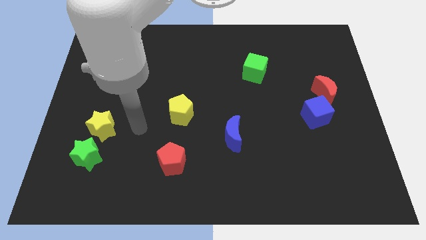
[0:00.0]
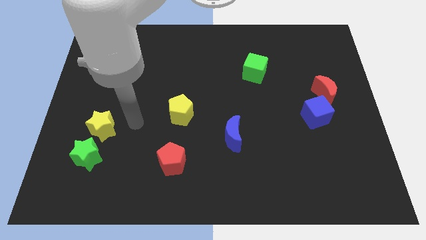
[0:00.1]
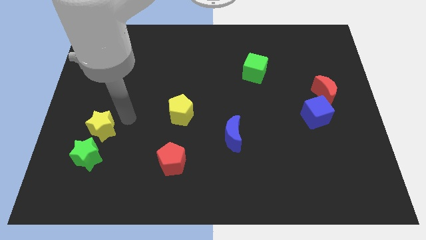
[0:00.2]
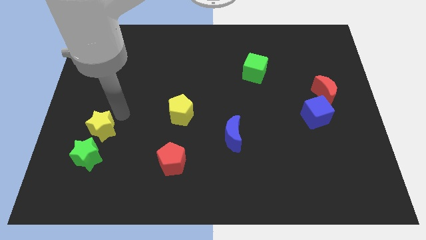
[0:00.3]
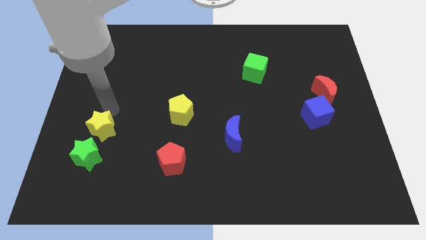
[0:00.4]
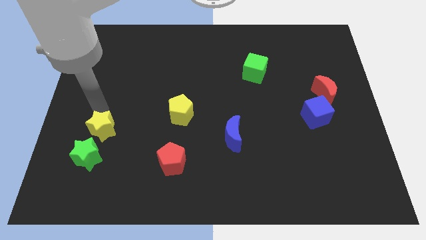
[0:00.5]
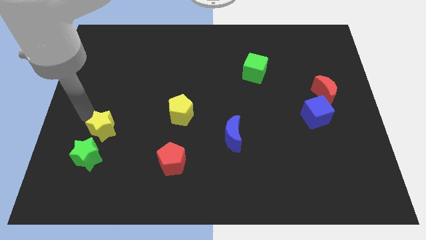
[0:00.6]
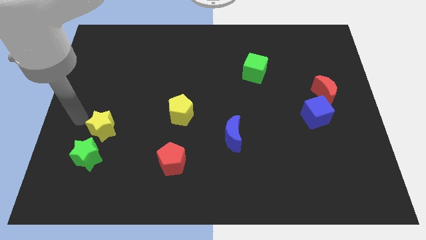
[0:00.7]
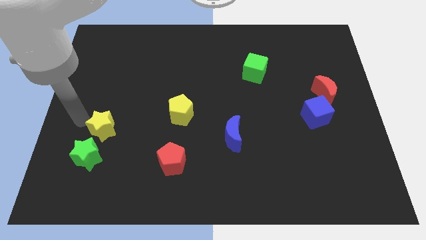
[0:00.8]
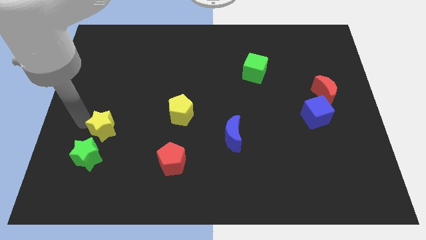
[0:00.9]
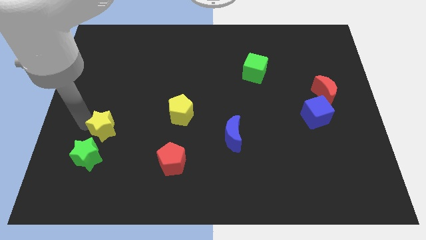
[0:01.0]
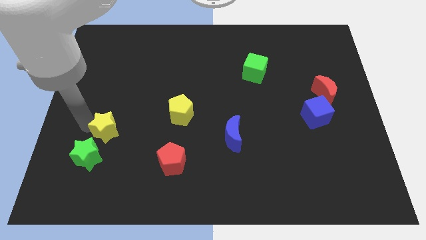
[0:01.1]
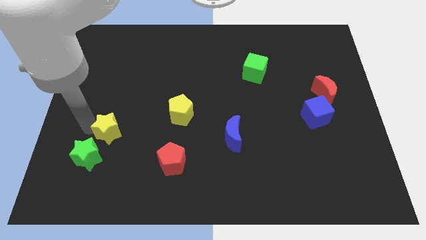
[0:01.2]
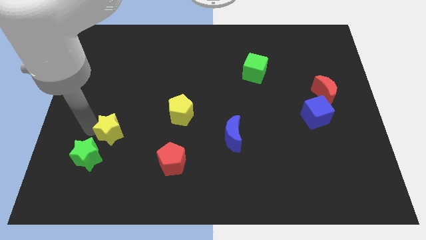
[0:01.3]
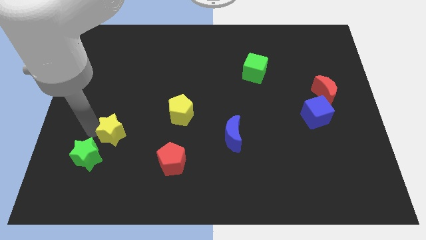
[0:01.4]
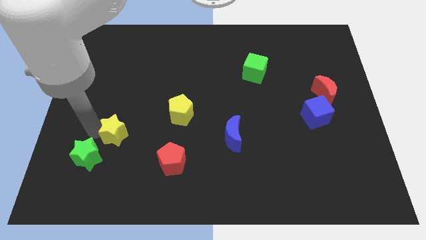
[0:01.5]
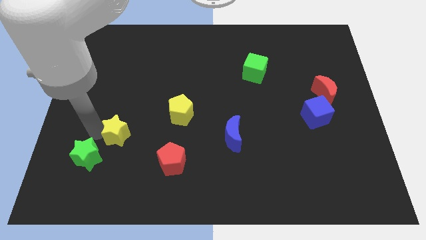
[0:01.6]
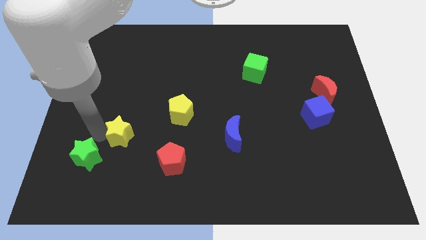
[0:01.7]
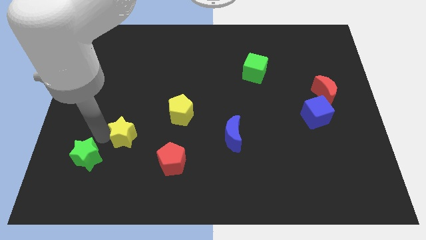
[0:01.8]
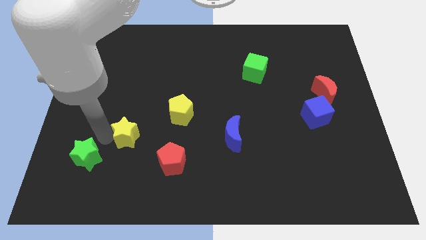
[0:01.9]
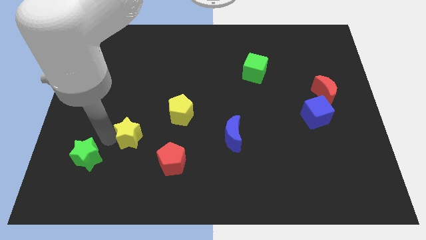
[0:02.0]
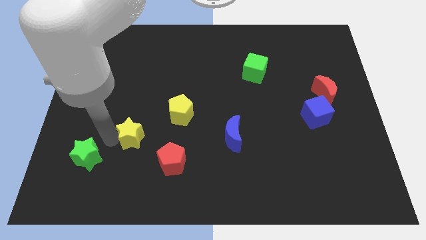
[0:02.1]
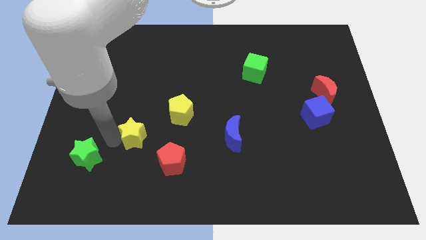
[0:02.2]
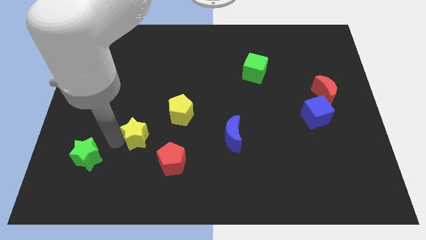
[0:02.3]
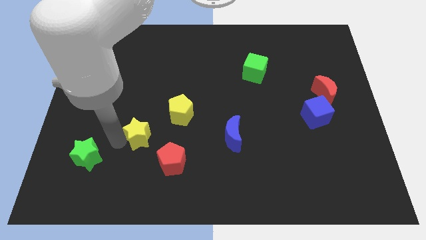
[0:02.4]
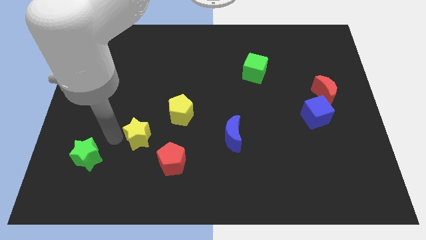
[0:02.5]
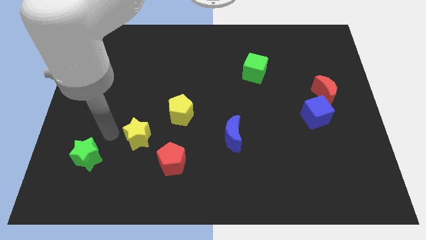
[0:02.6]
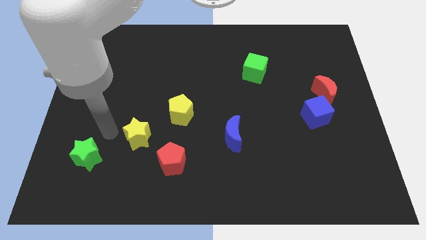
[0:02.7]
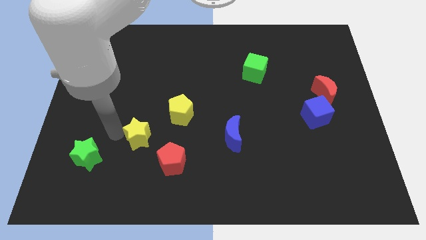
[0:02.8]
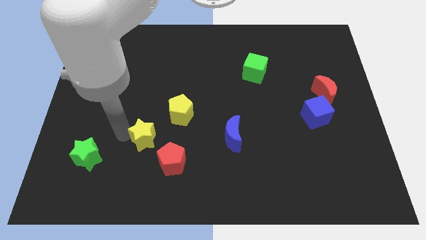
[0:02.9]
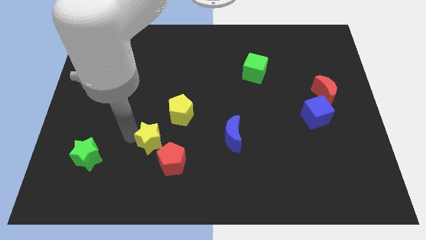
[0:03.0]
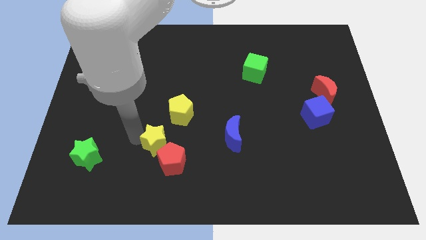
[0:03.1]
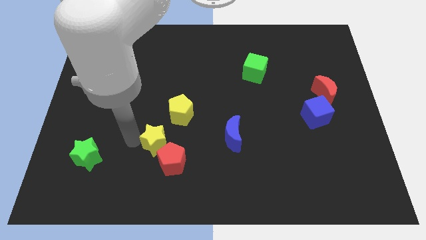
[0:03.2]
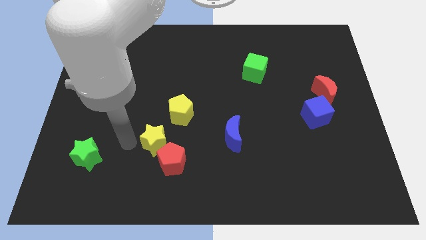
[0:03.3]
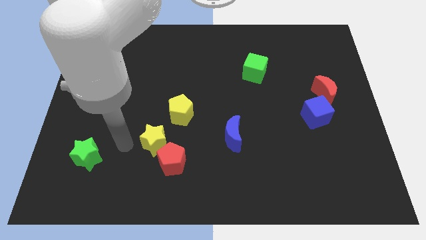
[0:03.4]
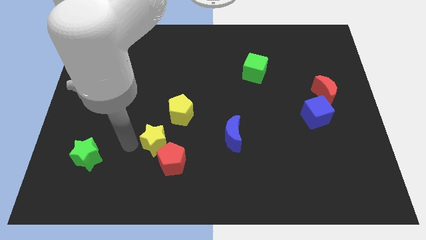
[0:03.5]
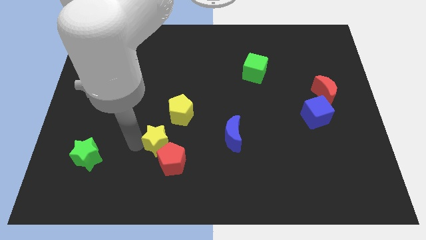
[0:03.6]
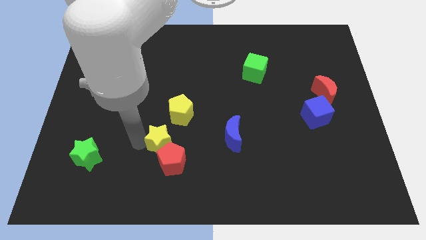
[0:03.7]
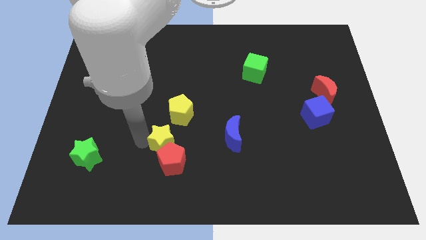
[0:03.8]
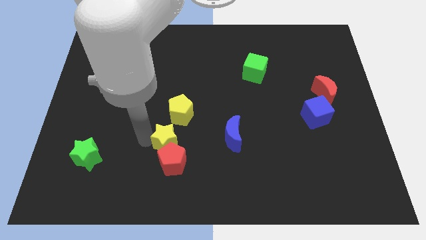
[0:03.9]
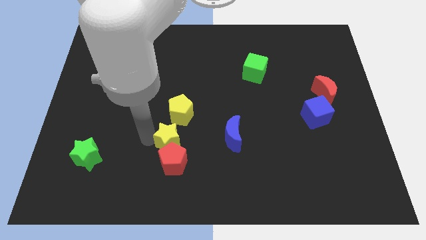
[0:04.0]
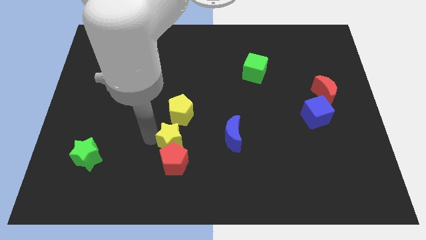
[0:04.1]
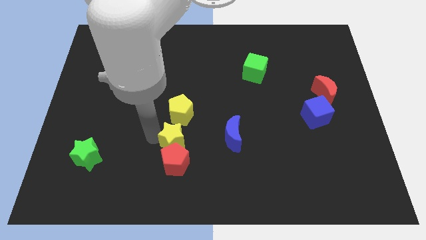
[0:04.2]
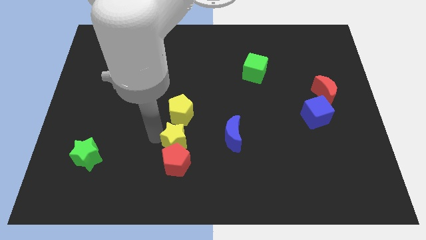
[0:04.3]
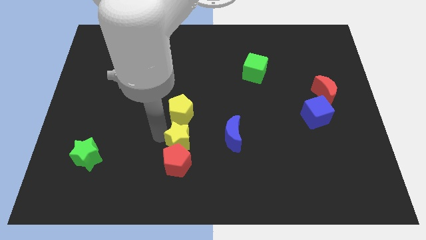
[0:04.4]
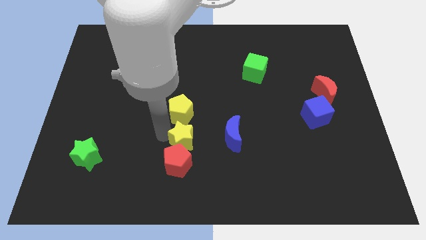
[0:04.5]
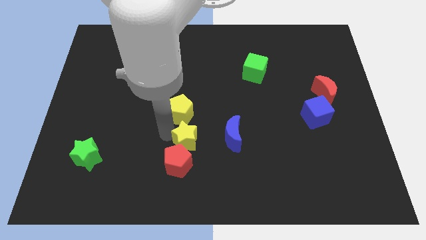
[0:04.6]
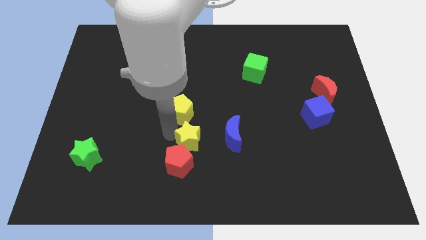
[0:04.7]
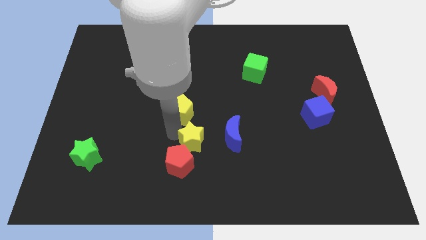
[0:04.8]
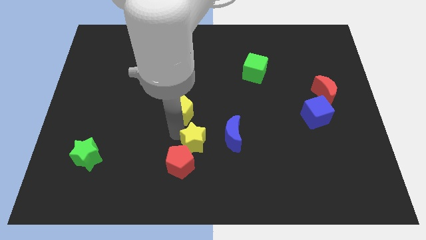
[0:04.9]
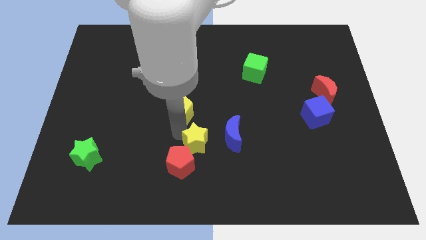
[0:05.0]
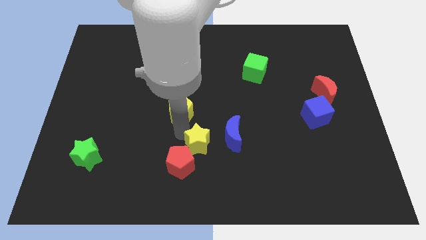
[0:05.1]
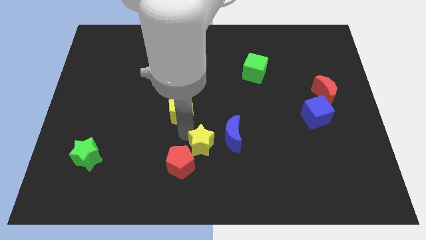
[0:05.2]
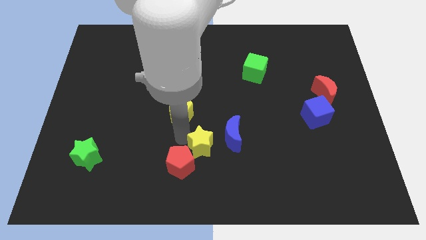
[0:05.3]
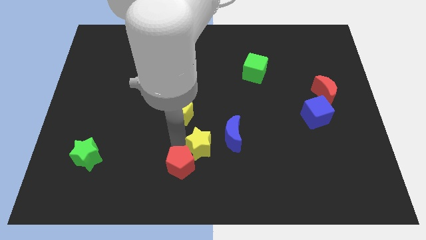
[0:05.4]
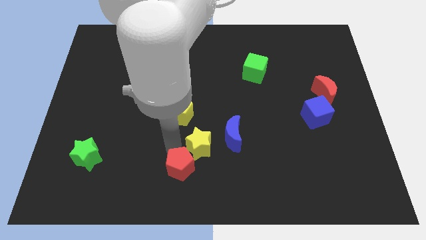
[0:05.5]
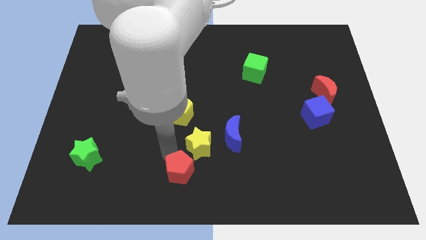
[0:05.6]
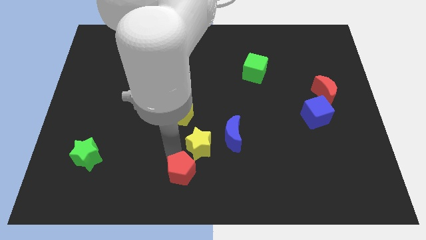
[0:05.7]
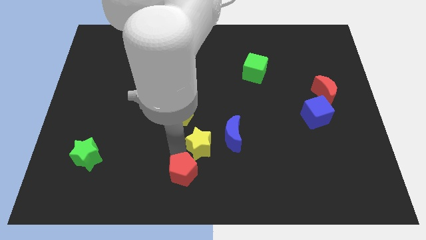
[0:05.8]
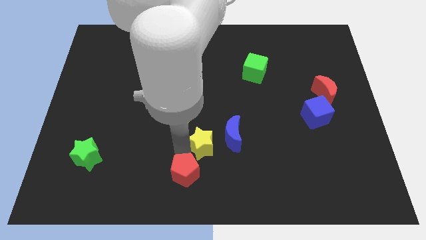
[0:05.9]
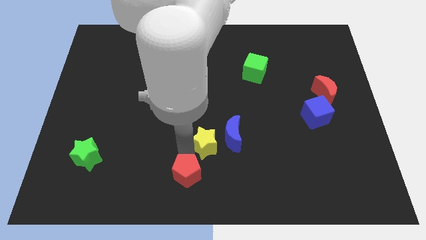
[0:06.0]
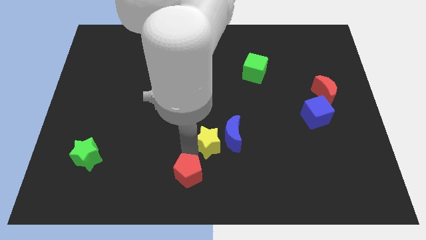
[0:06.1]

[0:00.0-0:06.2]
move the yellow star next to the blue moon

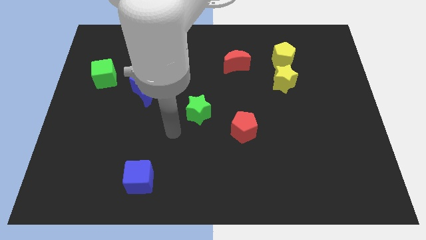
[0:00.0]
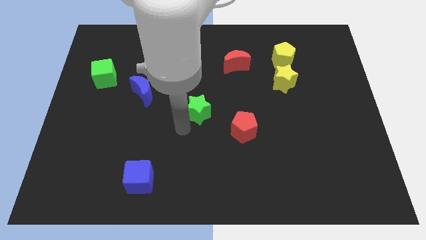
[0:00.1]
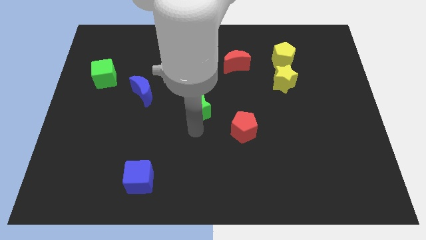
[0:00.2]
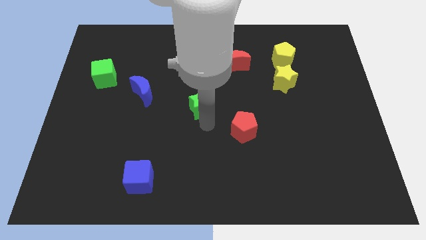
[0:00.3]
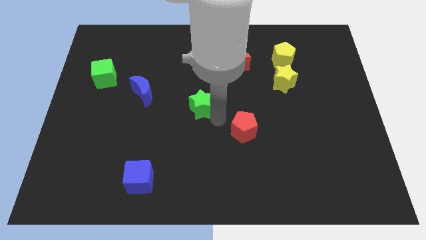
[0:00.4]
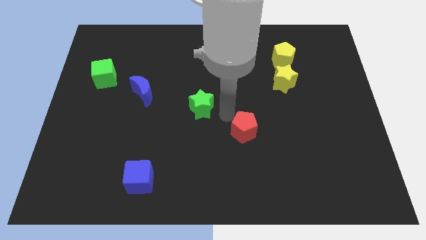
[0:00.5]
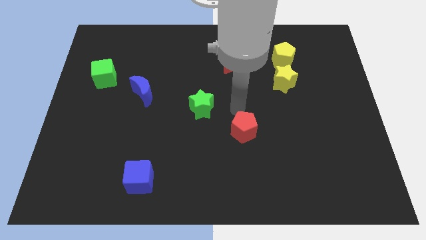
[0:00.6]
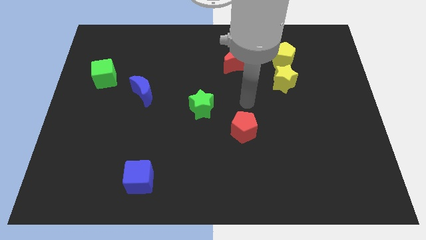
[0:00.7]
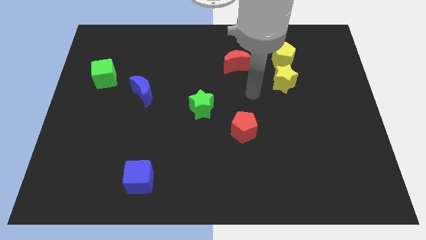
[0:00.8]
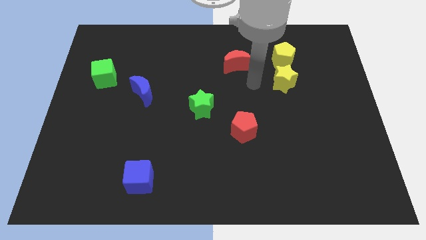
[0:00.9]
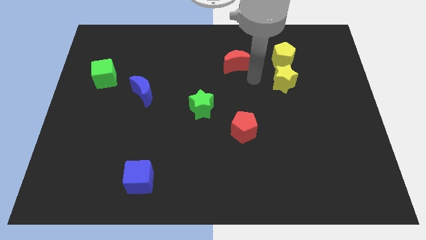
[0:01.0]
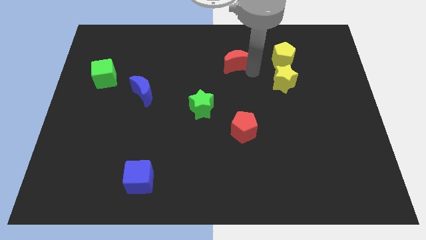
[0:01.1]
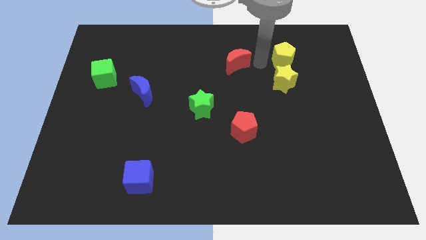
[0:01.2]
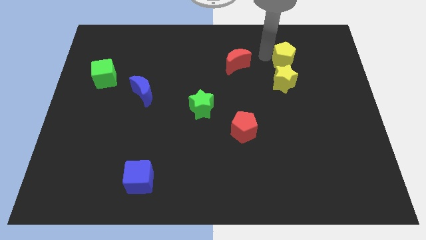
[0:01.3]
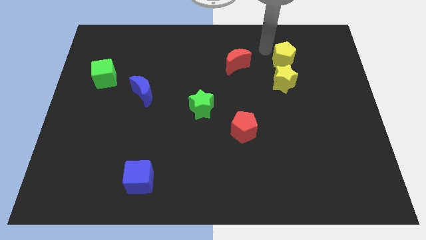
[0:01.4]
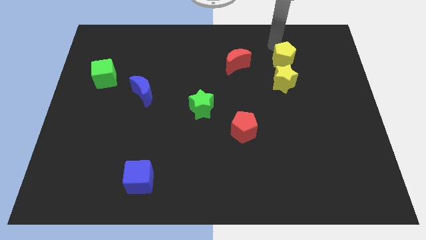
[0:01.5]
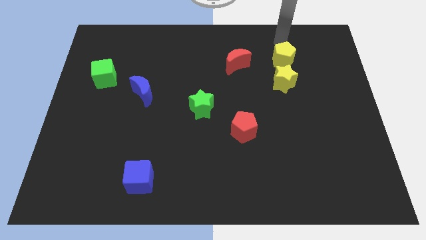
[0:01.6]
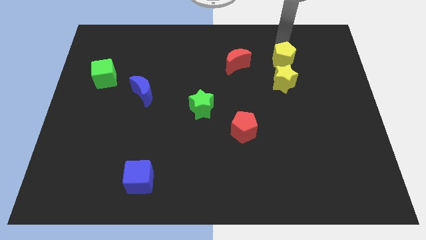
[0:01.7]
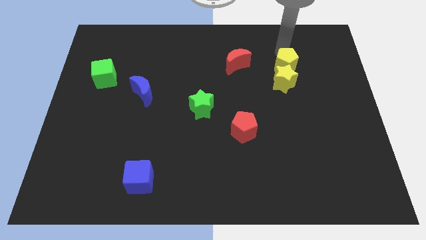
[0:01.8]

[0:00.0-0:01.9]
push the yellow pentagon close to the yellow star
